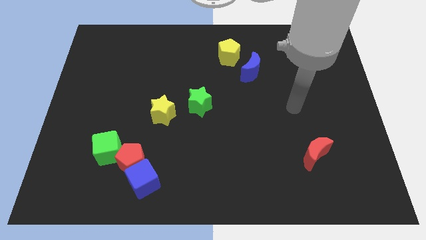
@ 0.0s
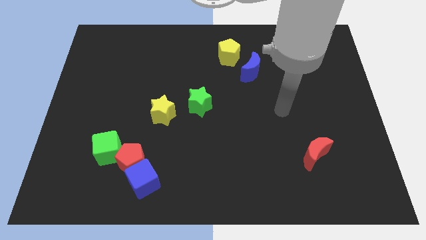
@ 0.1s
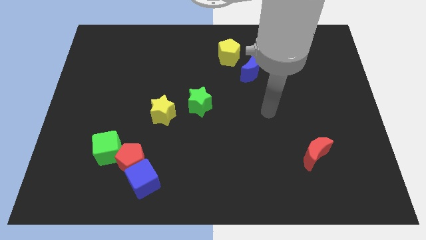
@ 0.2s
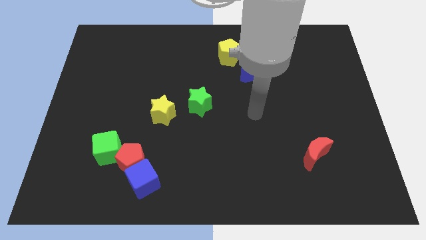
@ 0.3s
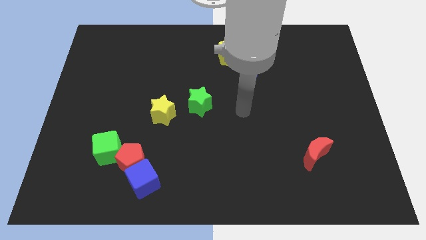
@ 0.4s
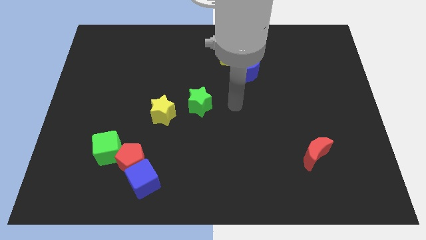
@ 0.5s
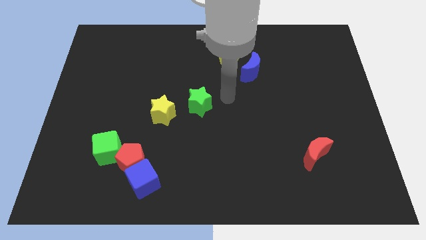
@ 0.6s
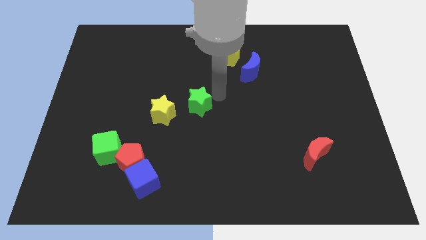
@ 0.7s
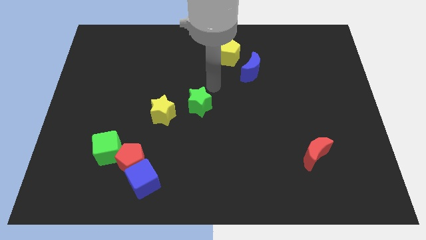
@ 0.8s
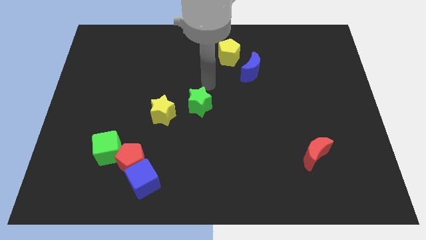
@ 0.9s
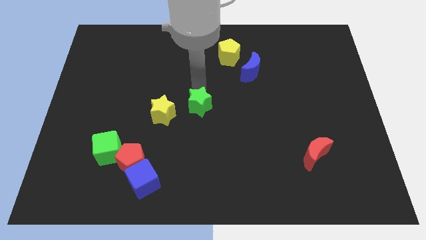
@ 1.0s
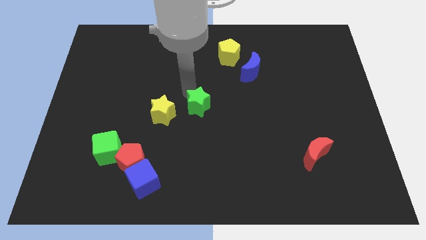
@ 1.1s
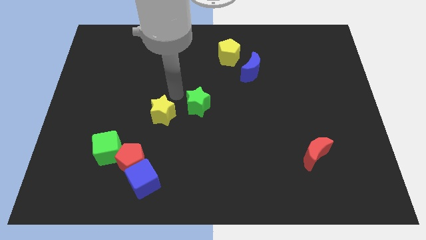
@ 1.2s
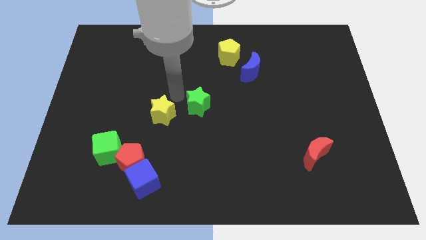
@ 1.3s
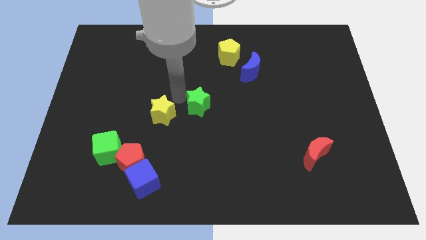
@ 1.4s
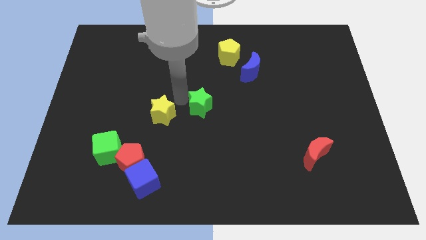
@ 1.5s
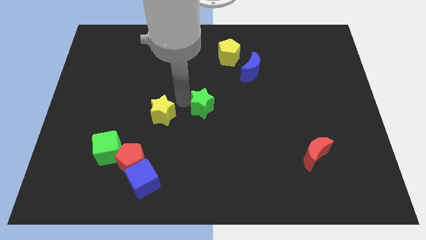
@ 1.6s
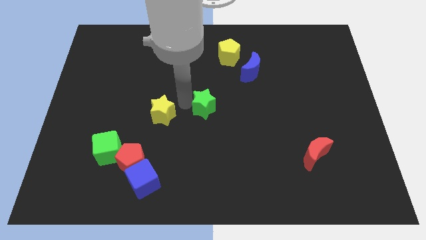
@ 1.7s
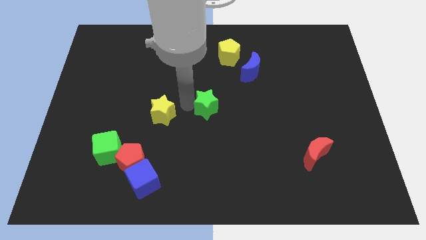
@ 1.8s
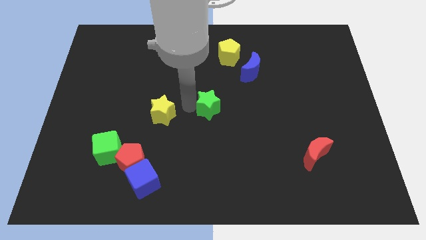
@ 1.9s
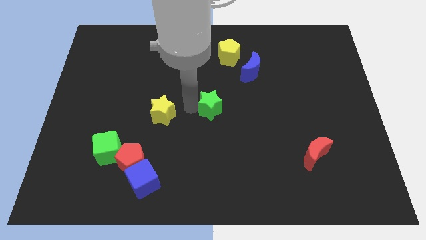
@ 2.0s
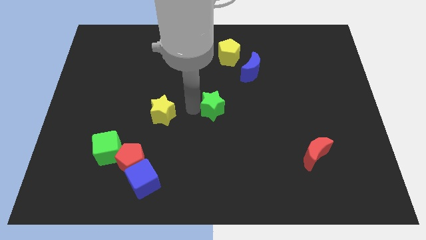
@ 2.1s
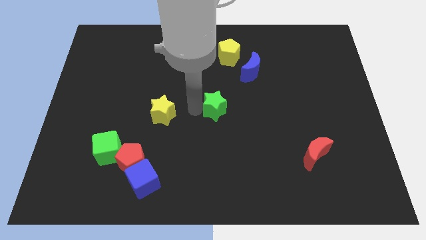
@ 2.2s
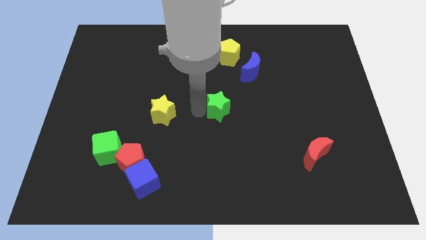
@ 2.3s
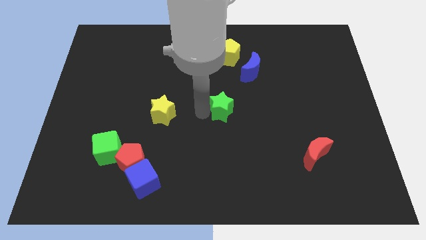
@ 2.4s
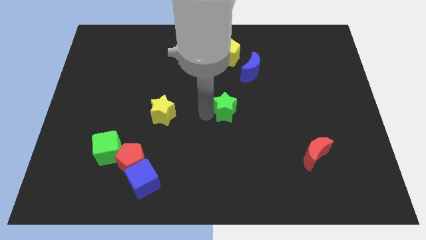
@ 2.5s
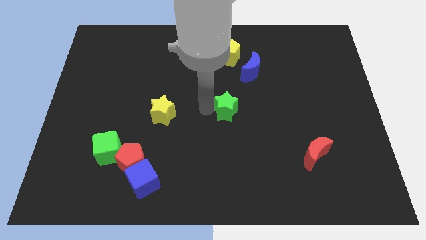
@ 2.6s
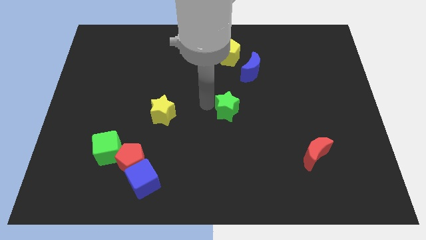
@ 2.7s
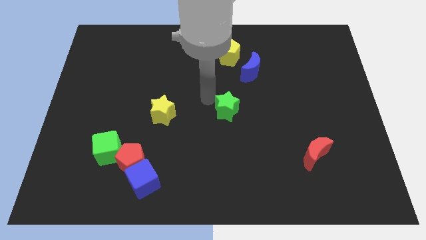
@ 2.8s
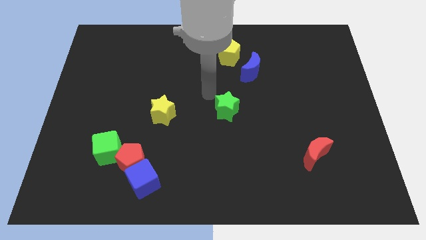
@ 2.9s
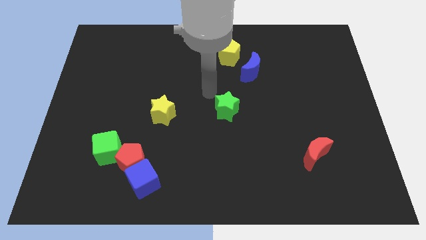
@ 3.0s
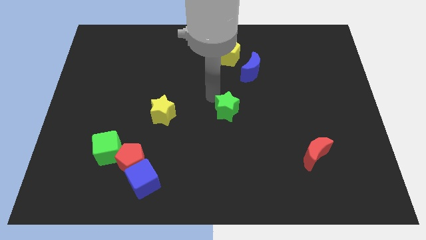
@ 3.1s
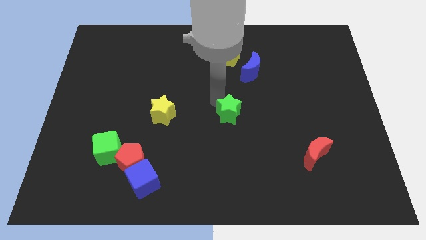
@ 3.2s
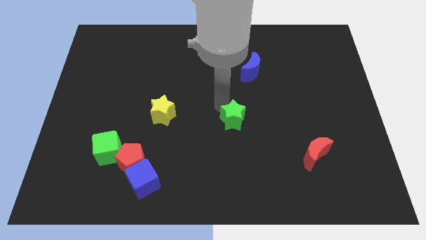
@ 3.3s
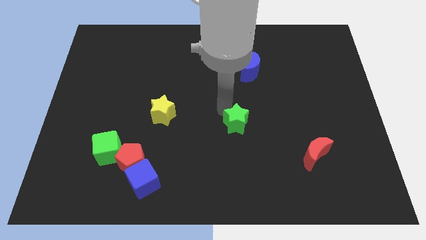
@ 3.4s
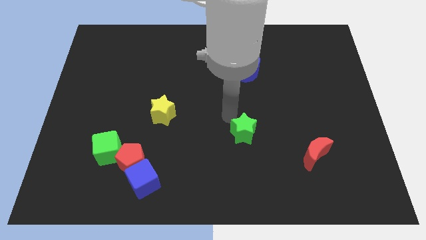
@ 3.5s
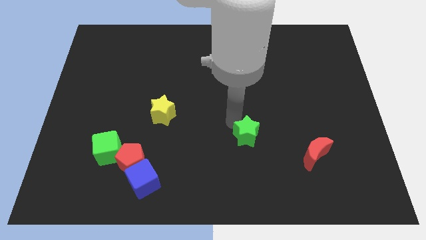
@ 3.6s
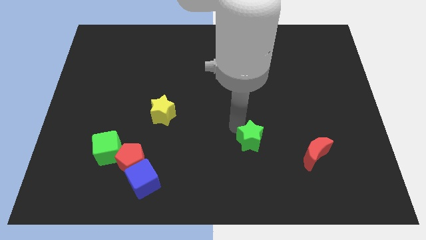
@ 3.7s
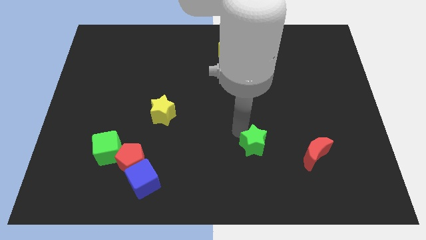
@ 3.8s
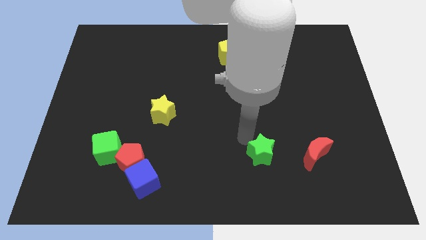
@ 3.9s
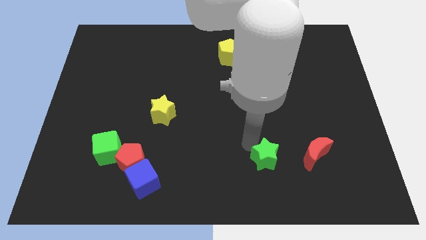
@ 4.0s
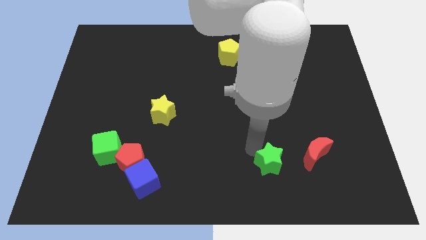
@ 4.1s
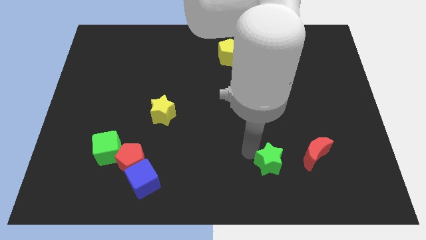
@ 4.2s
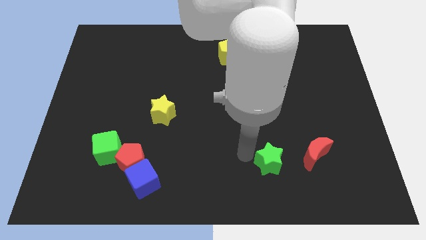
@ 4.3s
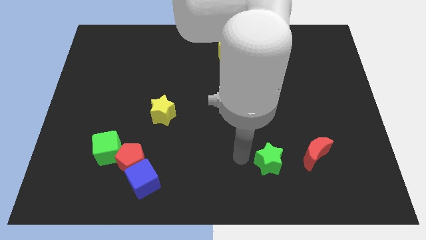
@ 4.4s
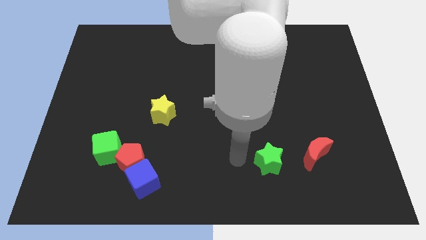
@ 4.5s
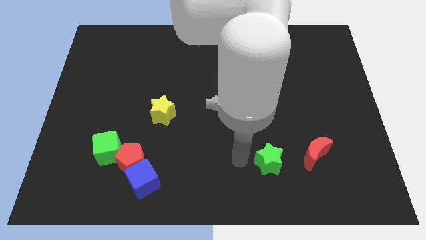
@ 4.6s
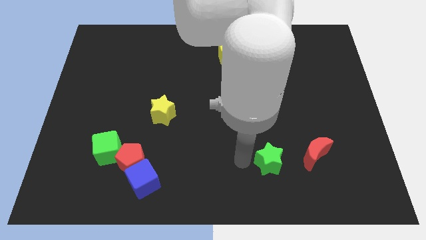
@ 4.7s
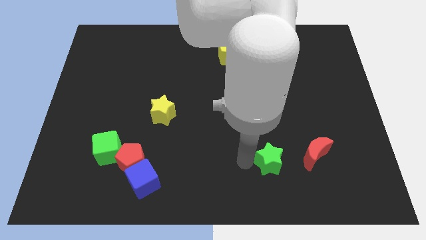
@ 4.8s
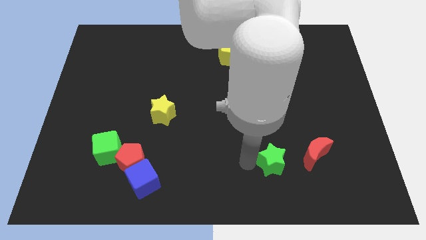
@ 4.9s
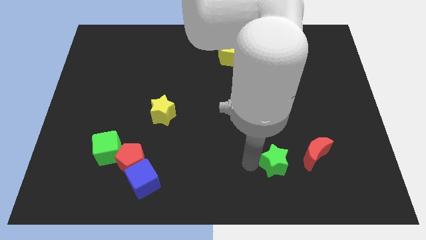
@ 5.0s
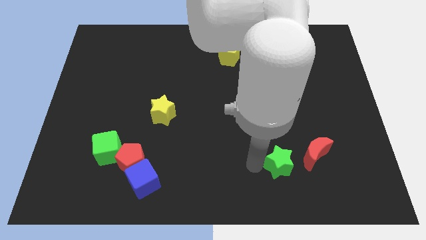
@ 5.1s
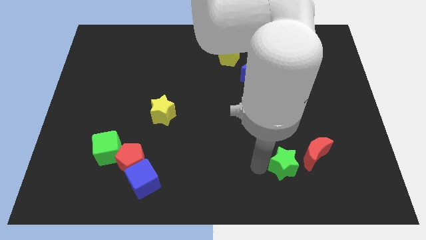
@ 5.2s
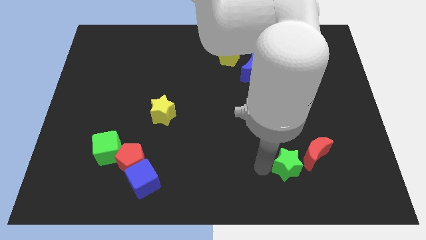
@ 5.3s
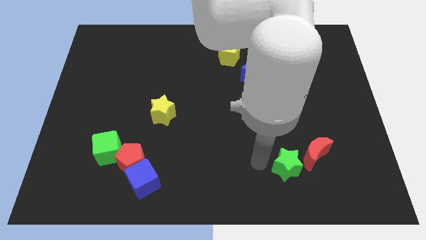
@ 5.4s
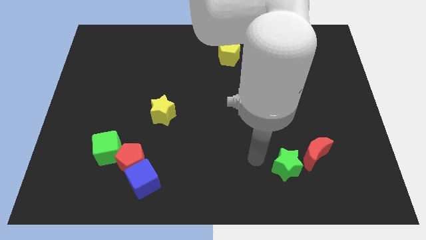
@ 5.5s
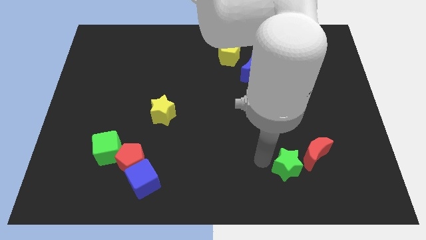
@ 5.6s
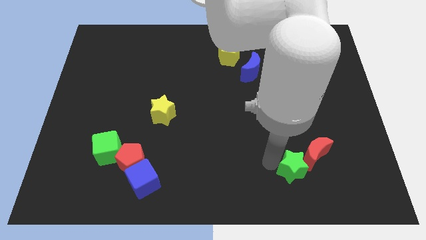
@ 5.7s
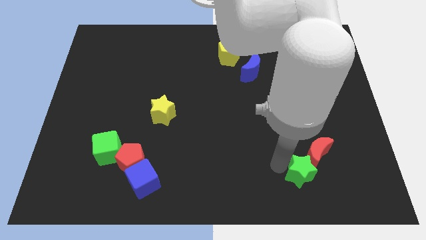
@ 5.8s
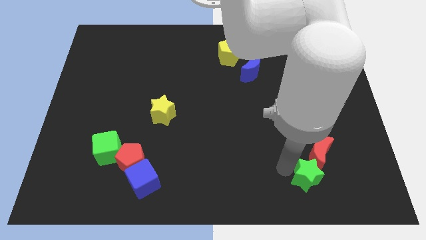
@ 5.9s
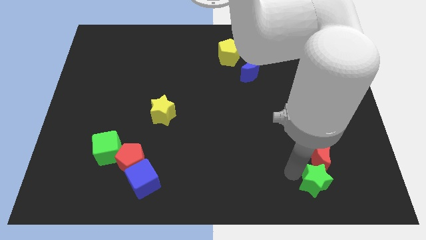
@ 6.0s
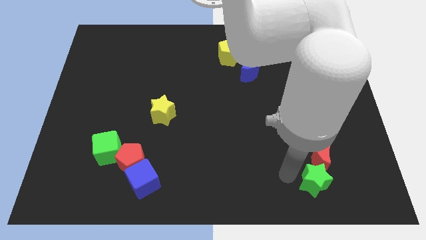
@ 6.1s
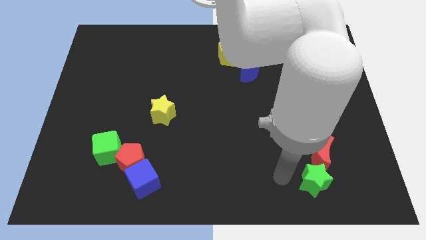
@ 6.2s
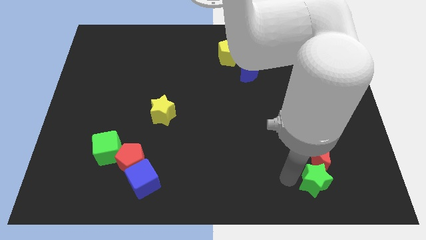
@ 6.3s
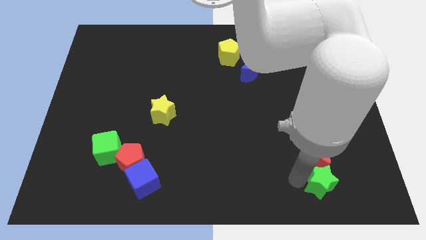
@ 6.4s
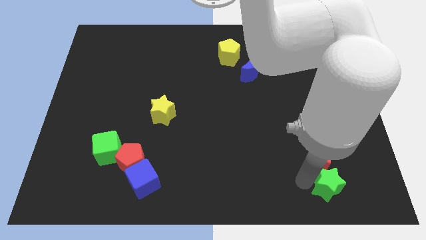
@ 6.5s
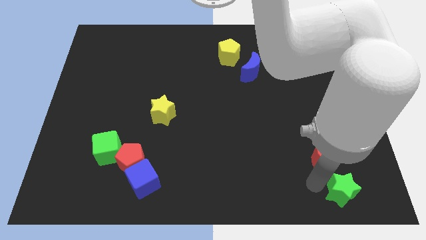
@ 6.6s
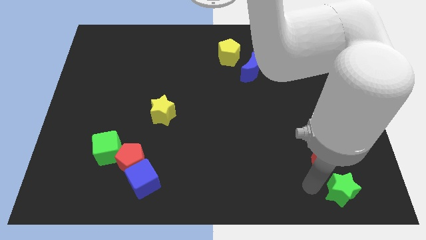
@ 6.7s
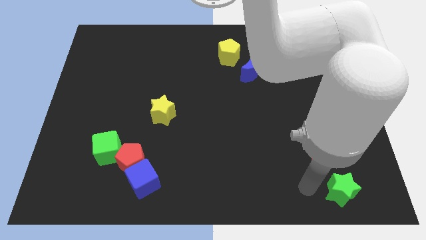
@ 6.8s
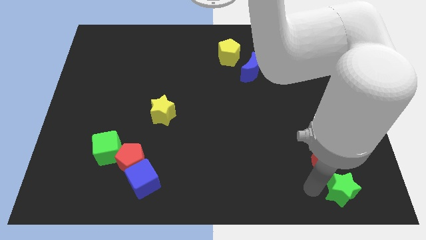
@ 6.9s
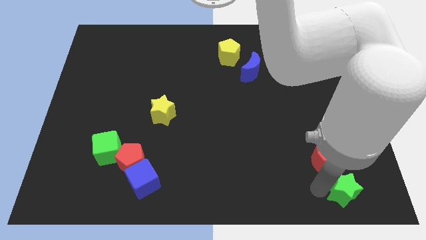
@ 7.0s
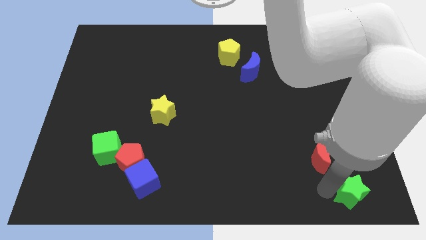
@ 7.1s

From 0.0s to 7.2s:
push the green star to the bottom right of the board
